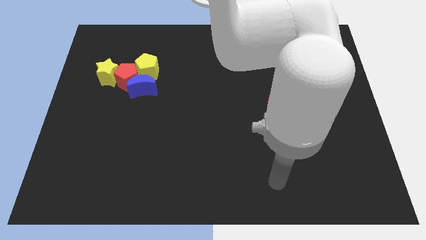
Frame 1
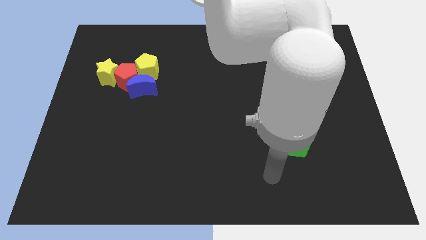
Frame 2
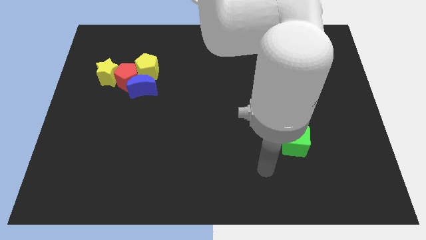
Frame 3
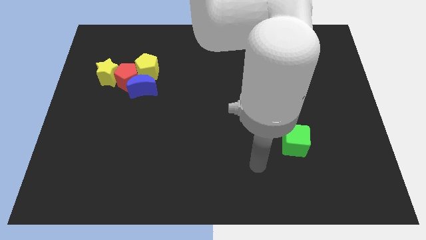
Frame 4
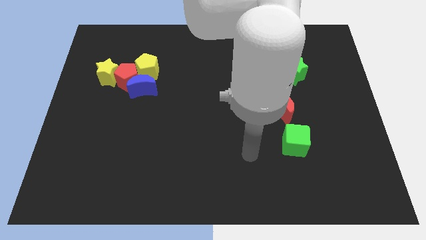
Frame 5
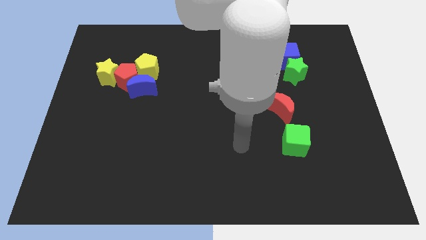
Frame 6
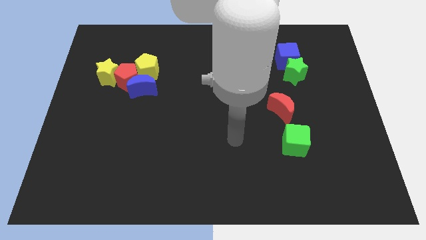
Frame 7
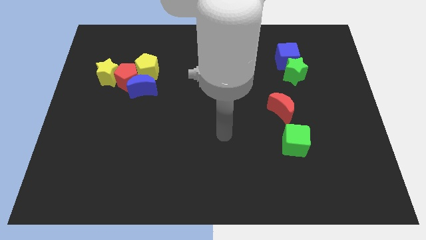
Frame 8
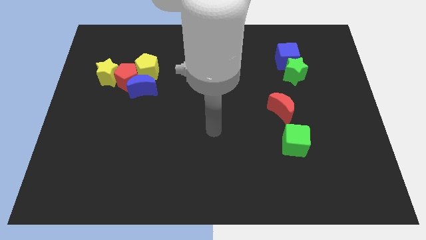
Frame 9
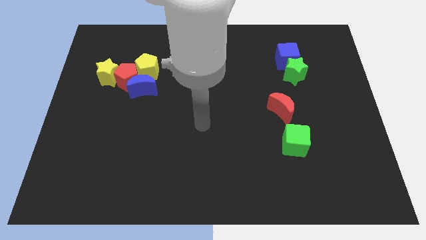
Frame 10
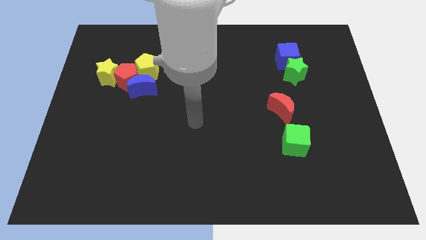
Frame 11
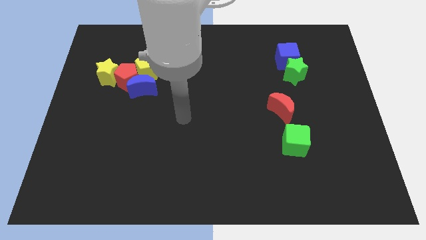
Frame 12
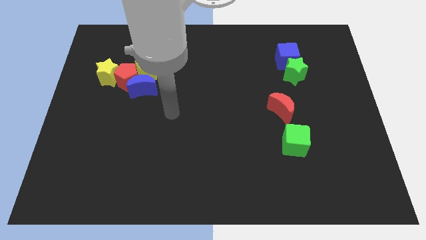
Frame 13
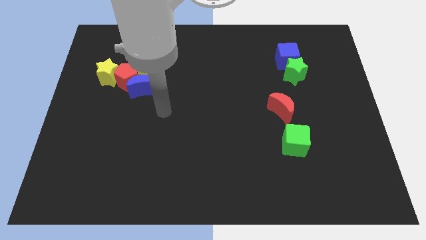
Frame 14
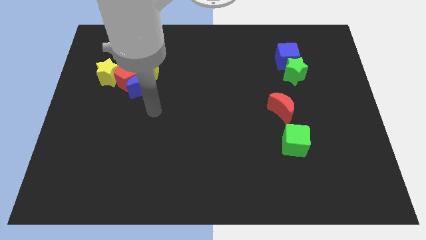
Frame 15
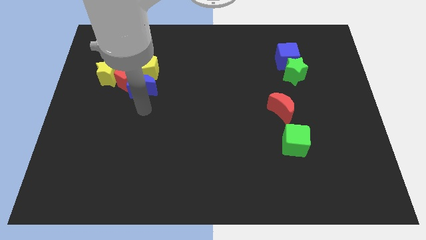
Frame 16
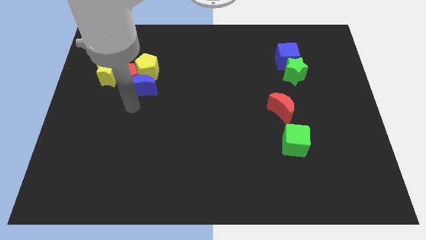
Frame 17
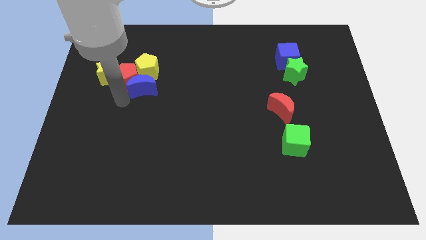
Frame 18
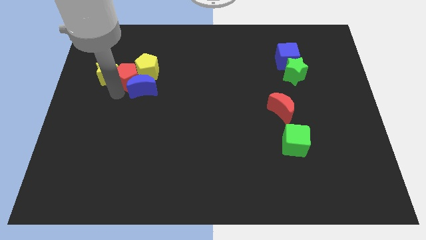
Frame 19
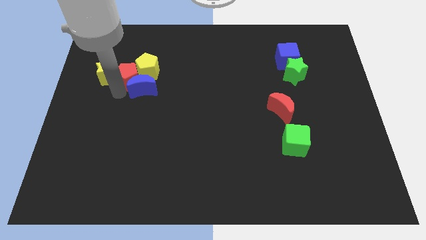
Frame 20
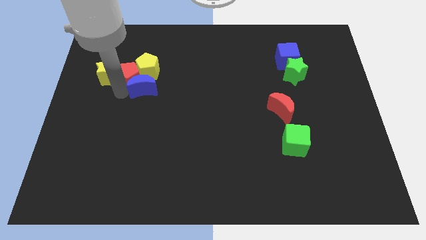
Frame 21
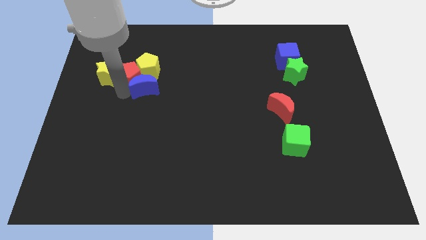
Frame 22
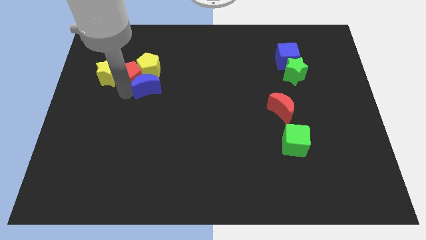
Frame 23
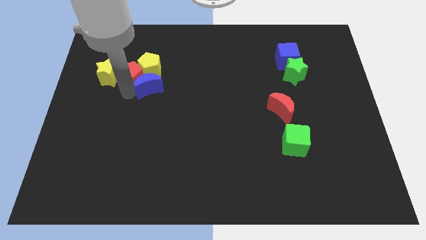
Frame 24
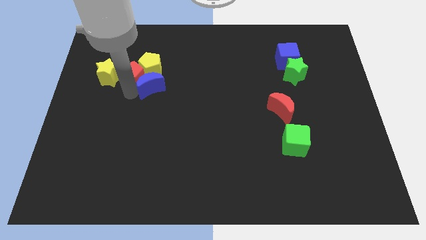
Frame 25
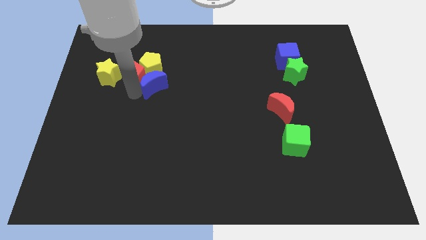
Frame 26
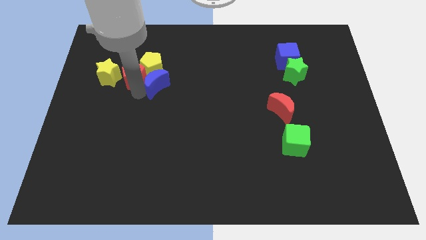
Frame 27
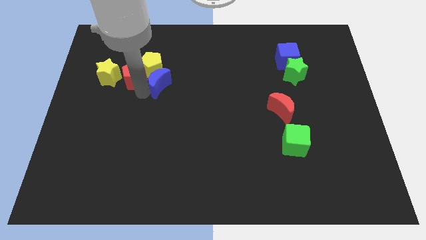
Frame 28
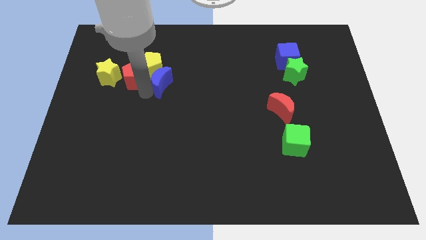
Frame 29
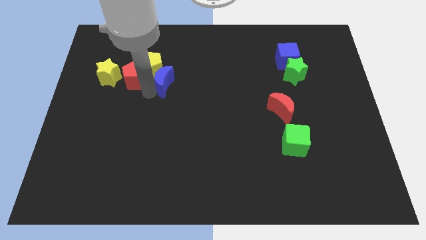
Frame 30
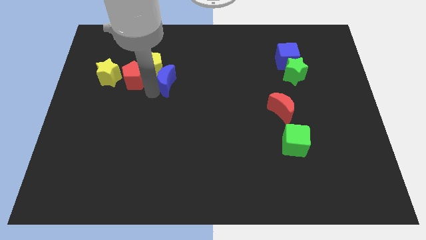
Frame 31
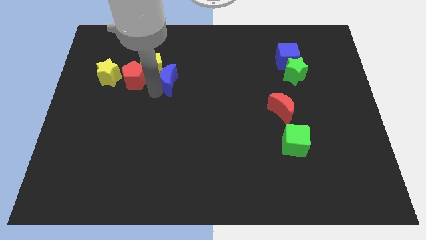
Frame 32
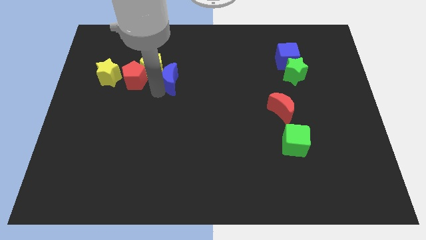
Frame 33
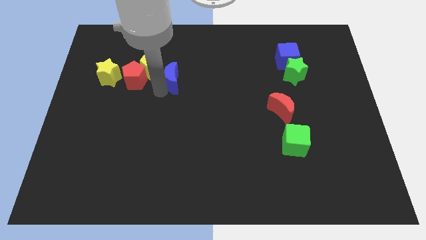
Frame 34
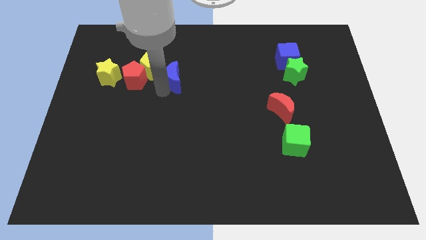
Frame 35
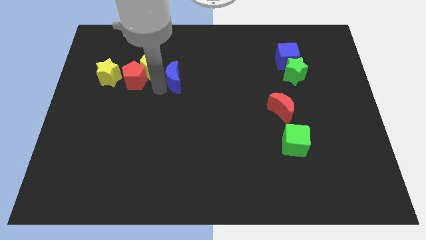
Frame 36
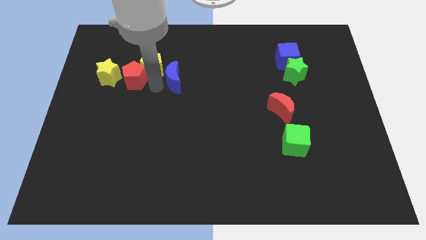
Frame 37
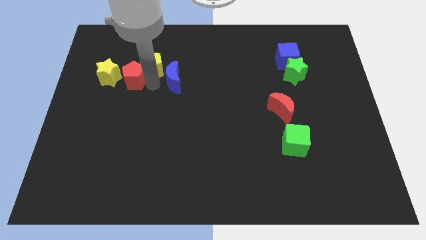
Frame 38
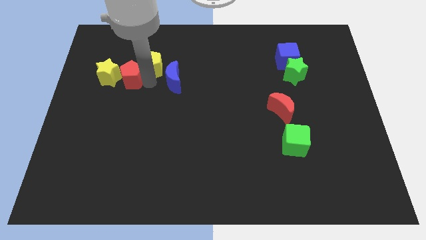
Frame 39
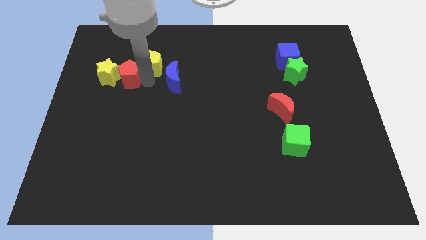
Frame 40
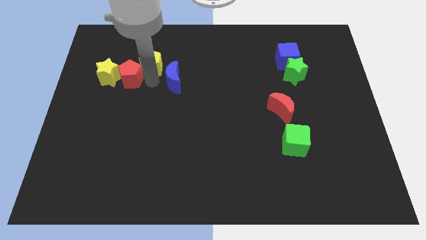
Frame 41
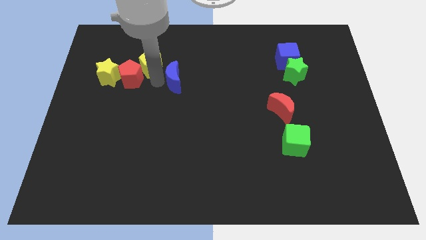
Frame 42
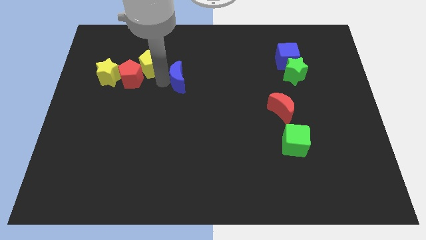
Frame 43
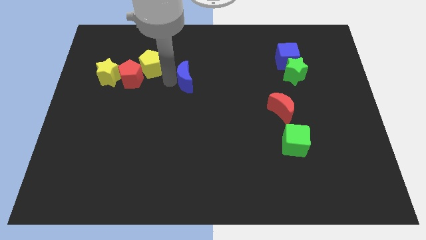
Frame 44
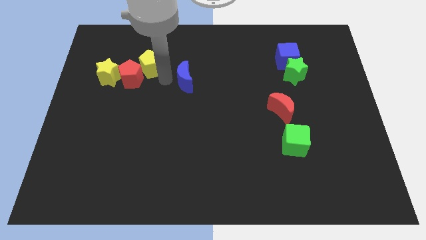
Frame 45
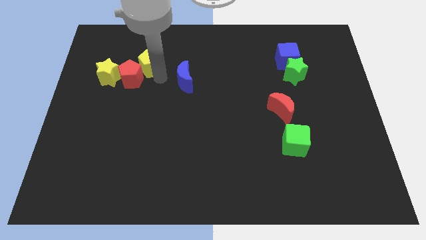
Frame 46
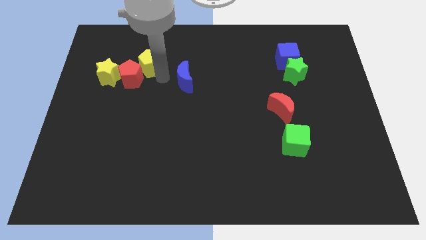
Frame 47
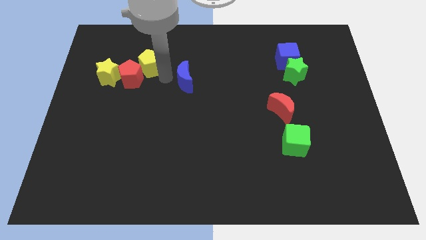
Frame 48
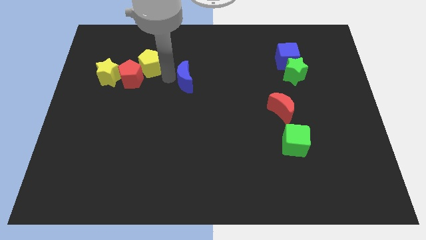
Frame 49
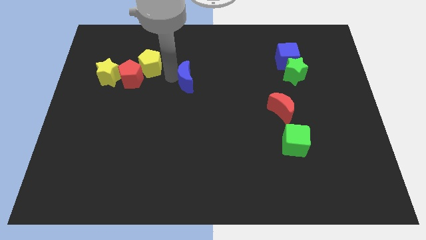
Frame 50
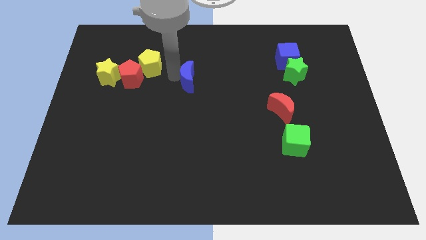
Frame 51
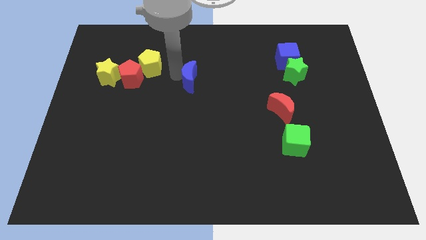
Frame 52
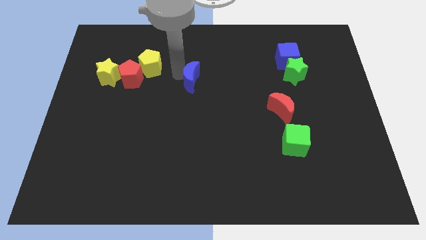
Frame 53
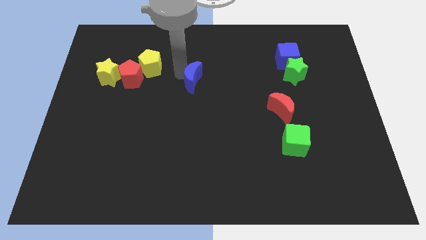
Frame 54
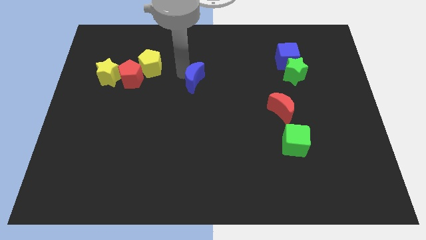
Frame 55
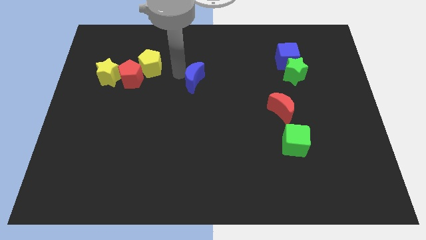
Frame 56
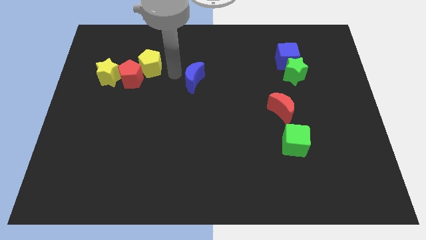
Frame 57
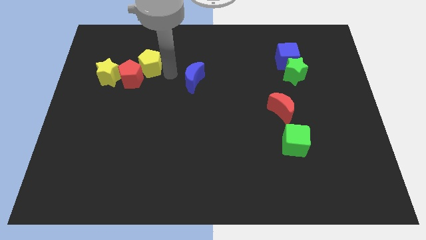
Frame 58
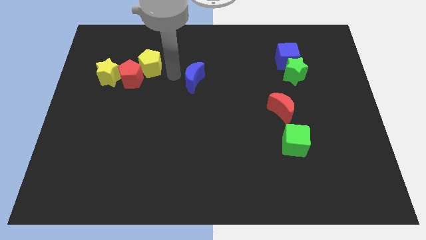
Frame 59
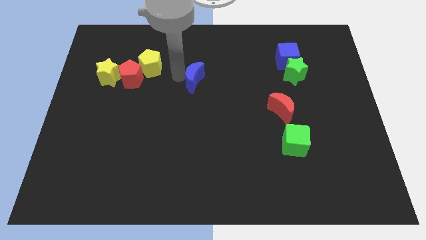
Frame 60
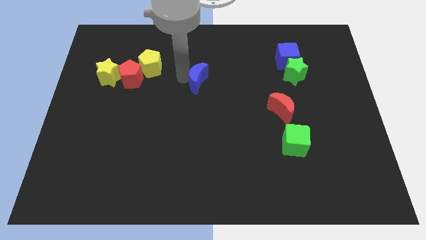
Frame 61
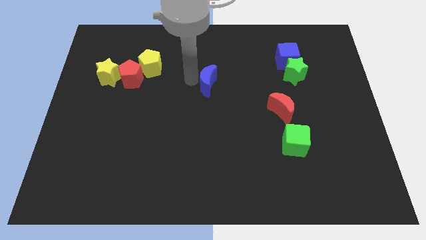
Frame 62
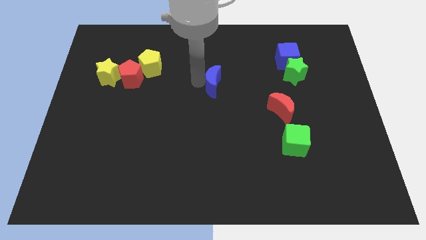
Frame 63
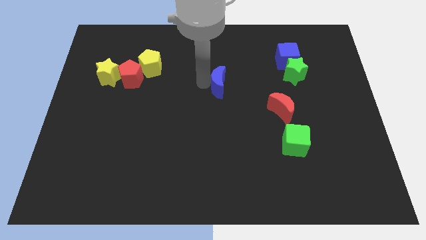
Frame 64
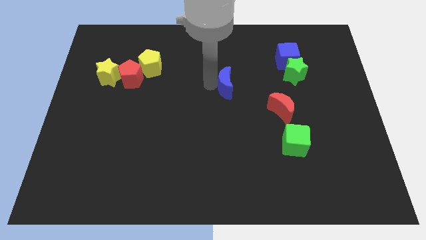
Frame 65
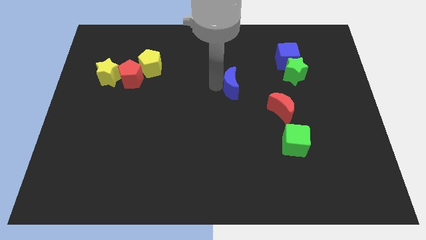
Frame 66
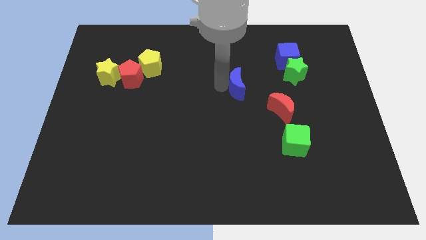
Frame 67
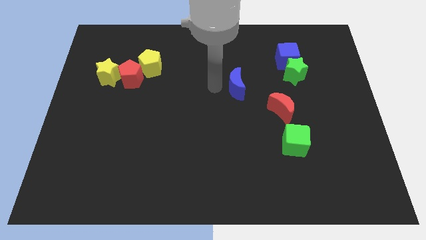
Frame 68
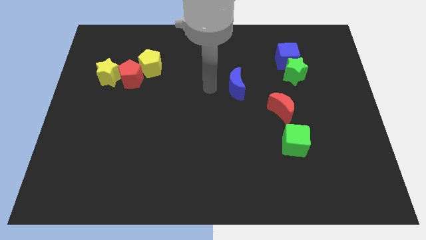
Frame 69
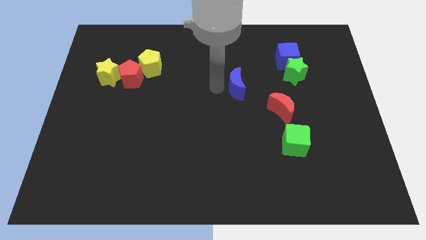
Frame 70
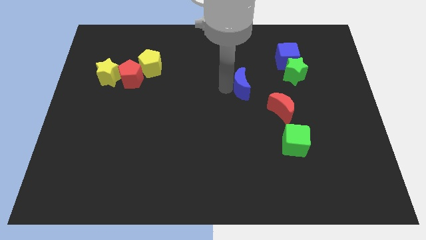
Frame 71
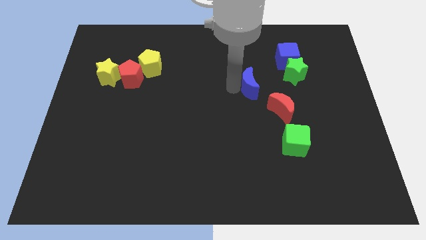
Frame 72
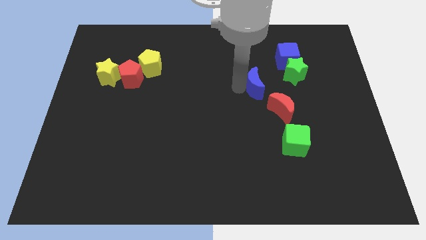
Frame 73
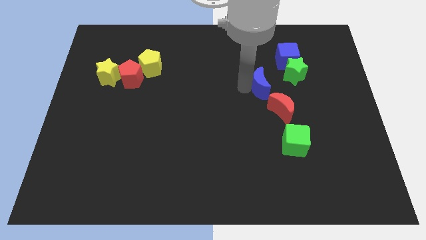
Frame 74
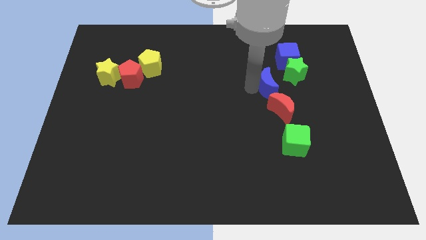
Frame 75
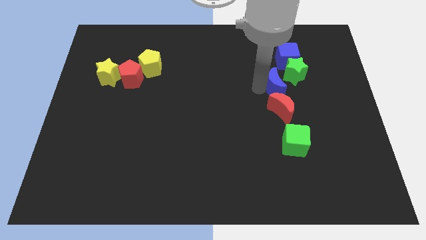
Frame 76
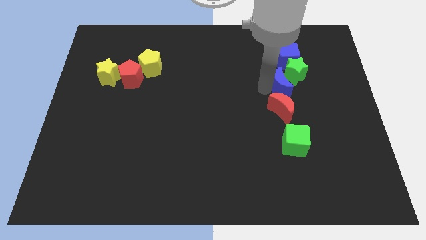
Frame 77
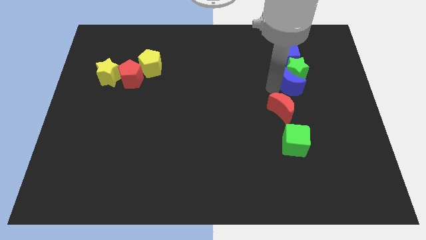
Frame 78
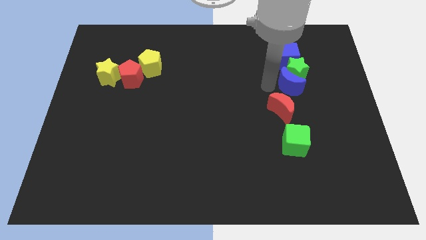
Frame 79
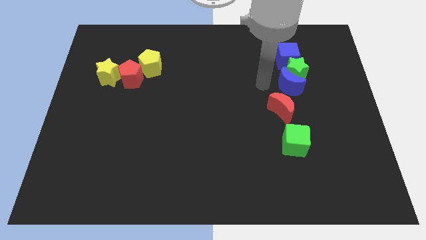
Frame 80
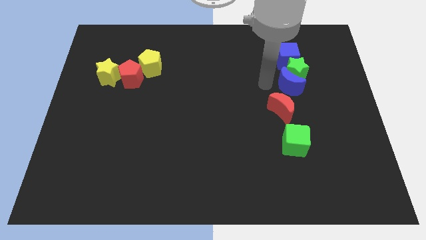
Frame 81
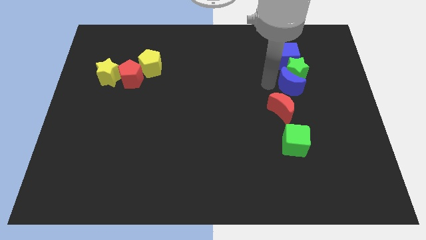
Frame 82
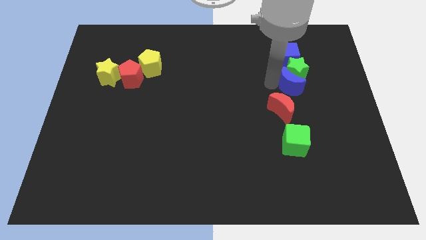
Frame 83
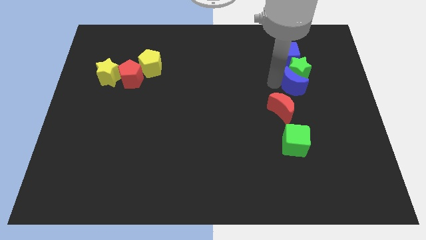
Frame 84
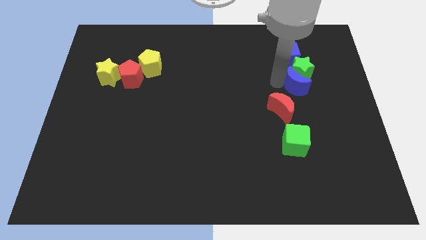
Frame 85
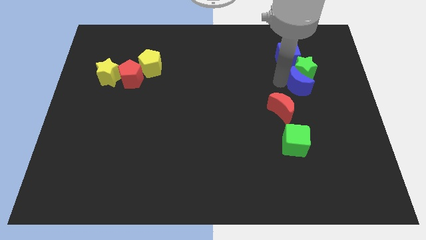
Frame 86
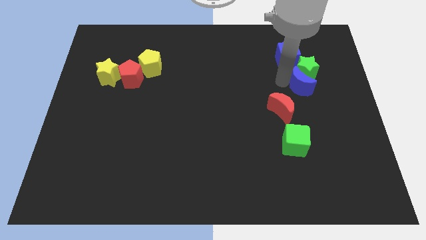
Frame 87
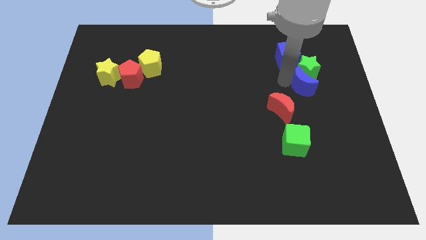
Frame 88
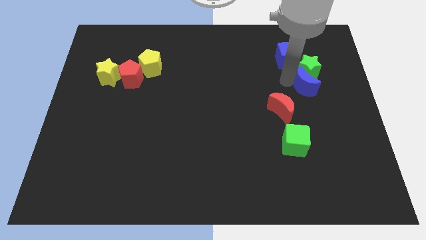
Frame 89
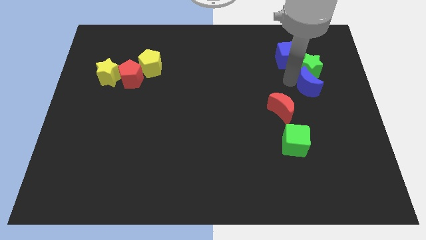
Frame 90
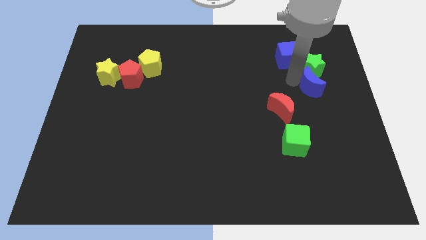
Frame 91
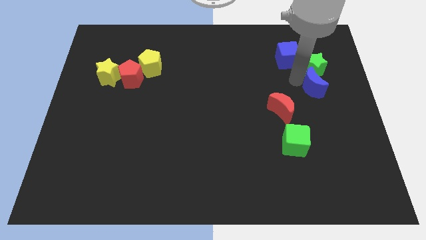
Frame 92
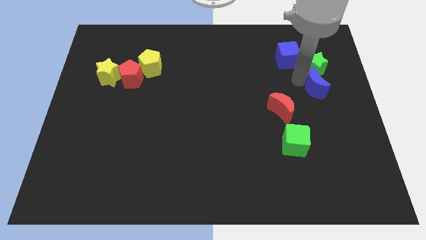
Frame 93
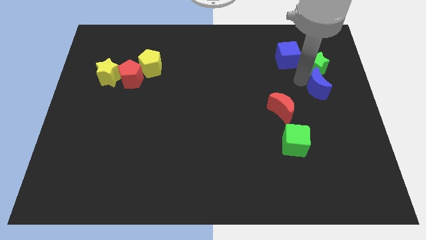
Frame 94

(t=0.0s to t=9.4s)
put the blue moon to the right side of the board
